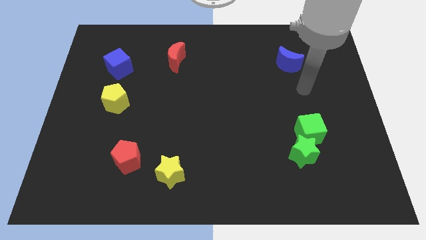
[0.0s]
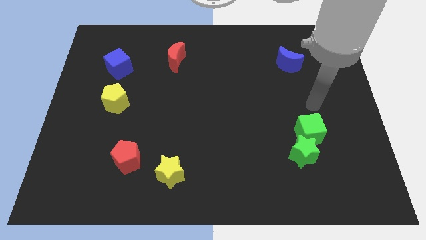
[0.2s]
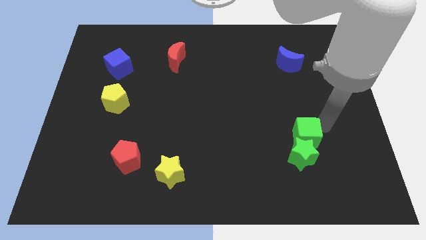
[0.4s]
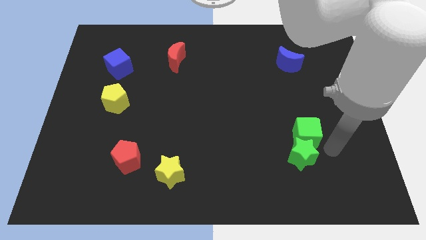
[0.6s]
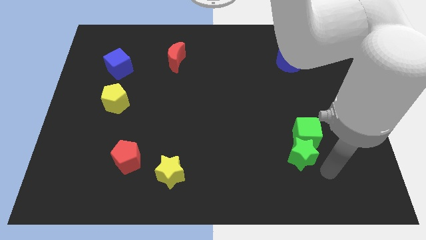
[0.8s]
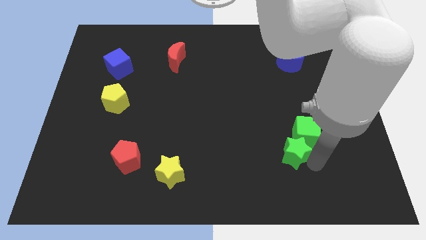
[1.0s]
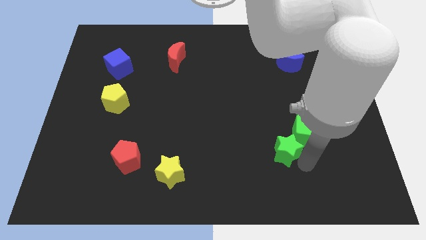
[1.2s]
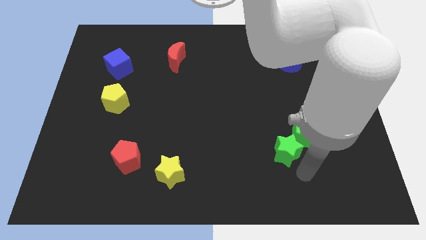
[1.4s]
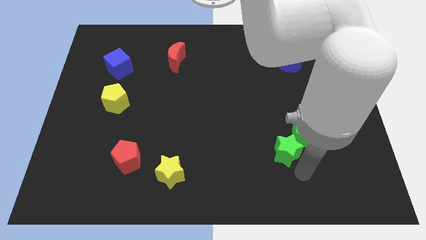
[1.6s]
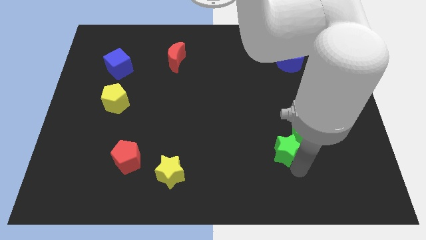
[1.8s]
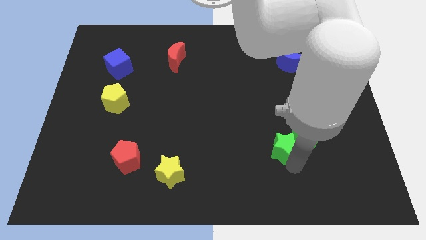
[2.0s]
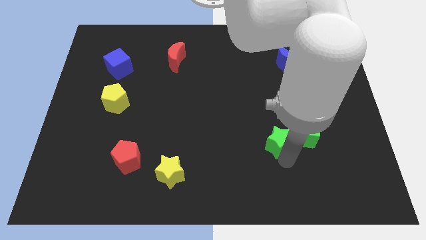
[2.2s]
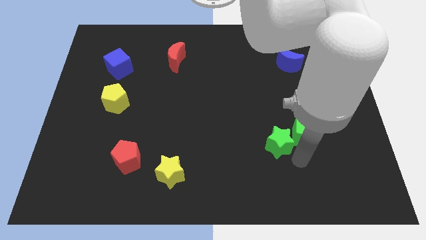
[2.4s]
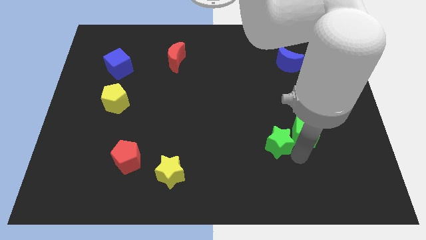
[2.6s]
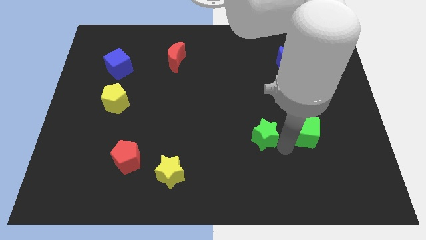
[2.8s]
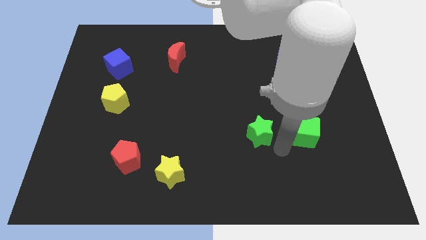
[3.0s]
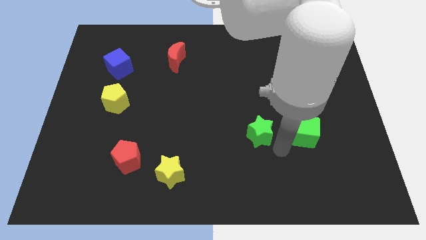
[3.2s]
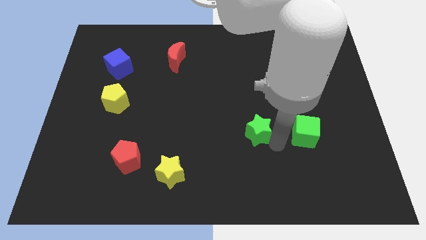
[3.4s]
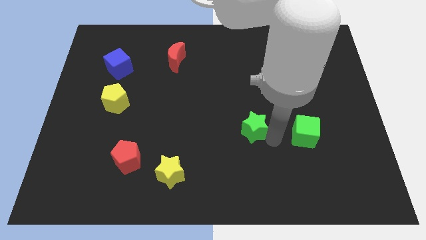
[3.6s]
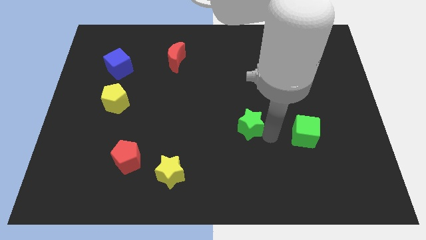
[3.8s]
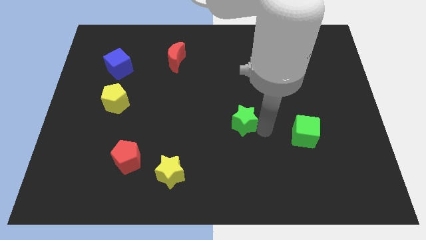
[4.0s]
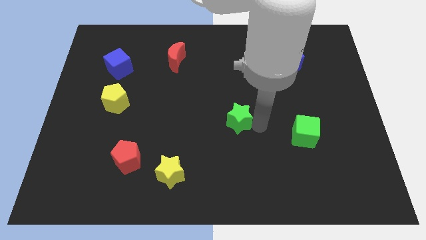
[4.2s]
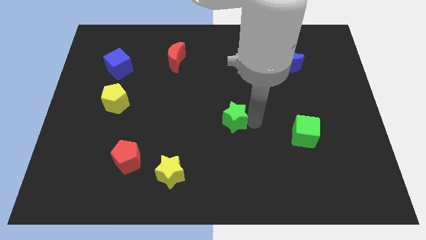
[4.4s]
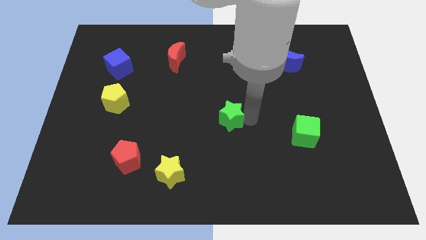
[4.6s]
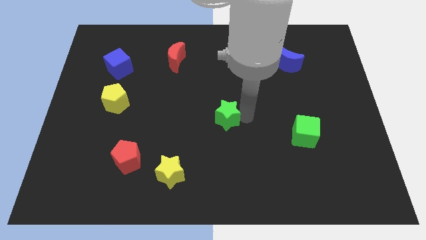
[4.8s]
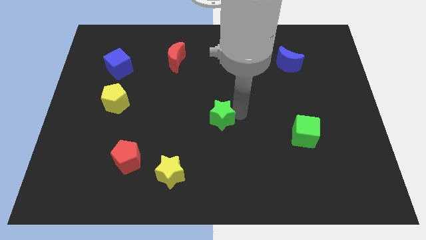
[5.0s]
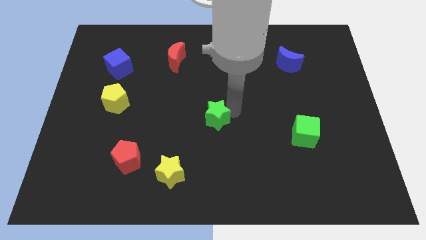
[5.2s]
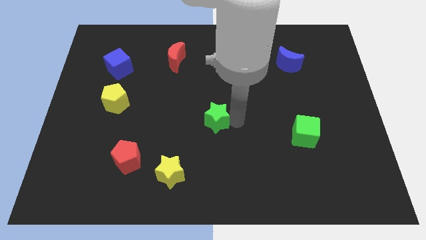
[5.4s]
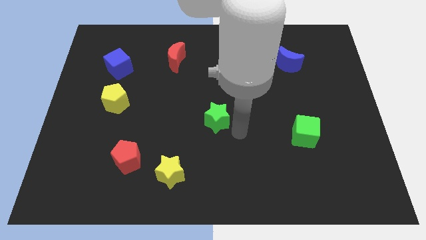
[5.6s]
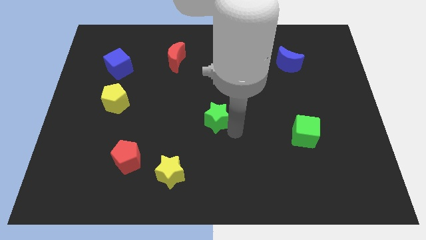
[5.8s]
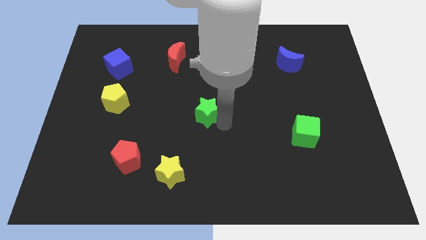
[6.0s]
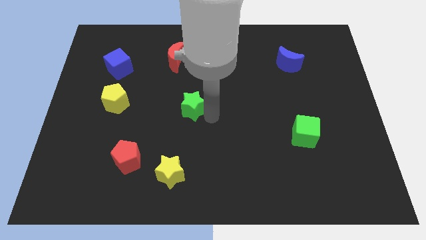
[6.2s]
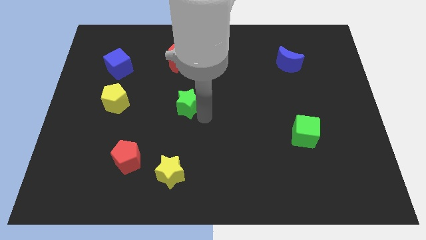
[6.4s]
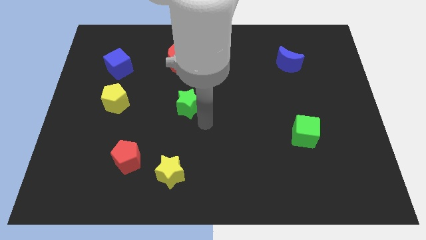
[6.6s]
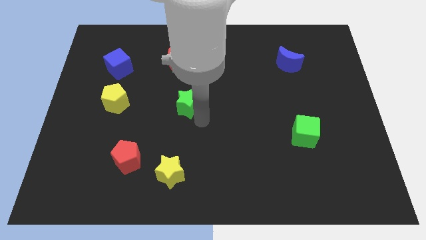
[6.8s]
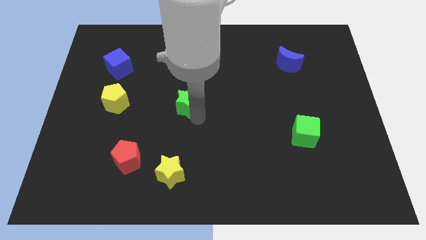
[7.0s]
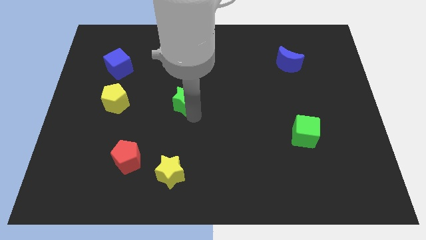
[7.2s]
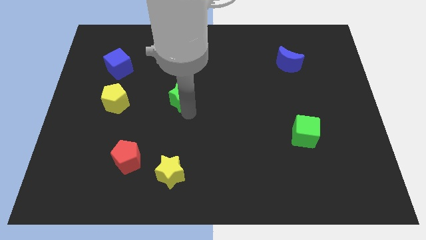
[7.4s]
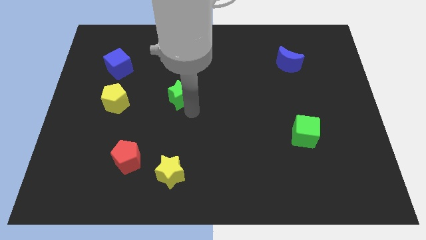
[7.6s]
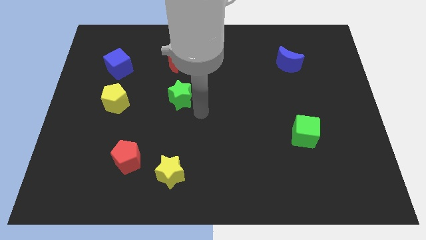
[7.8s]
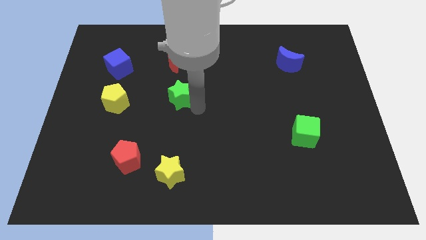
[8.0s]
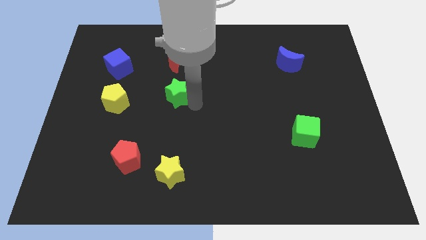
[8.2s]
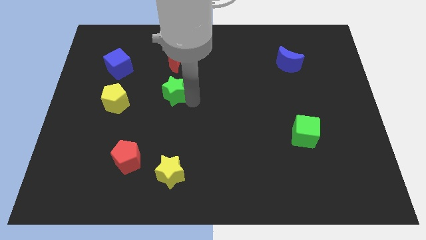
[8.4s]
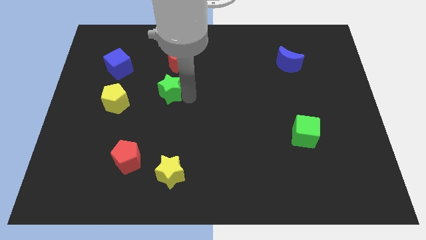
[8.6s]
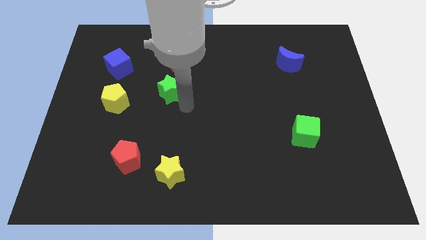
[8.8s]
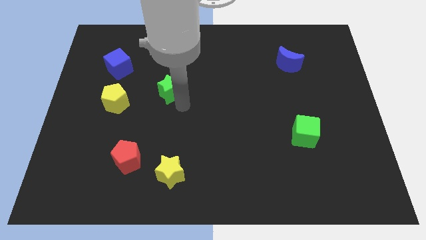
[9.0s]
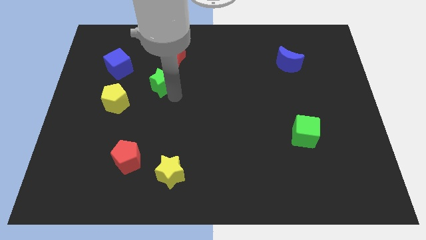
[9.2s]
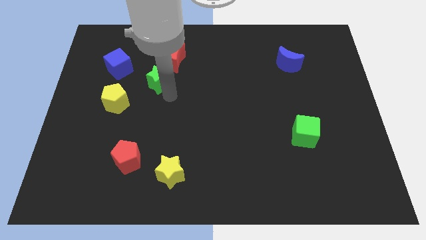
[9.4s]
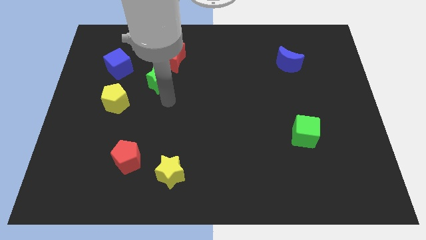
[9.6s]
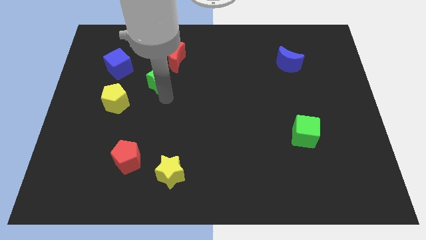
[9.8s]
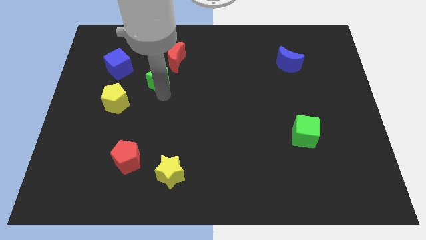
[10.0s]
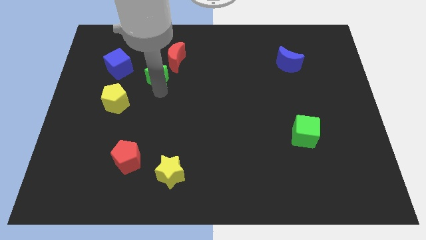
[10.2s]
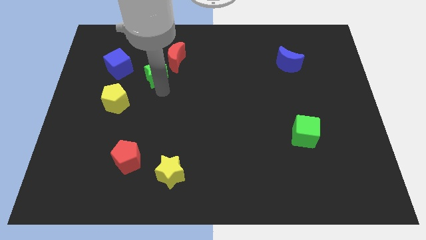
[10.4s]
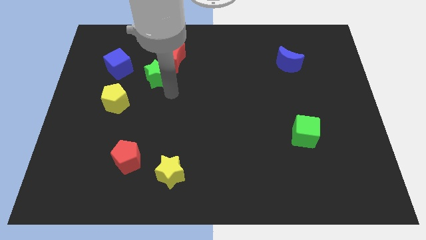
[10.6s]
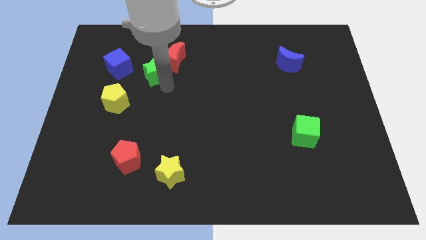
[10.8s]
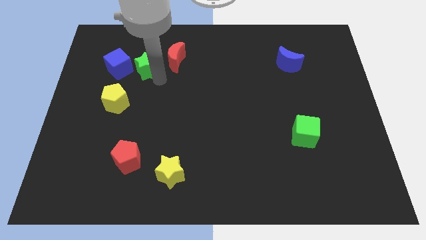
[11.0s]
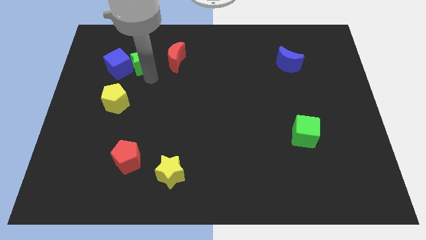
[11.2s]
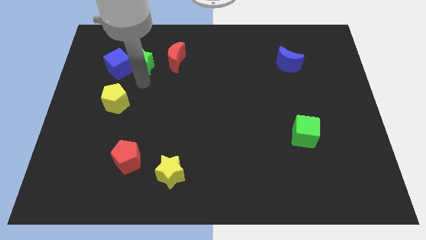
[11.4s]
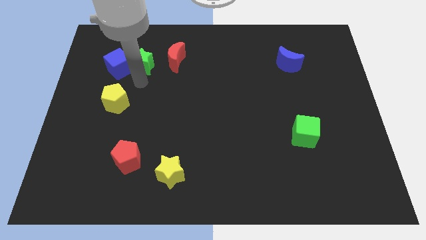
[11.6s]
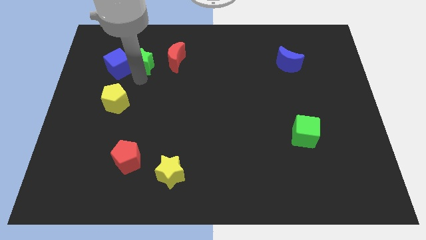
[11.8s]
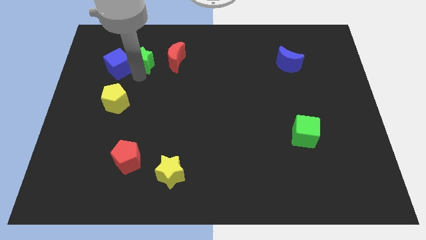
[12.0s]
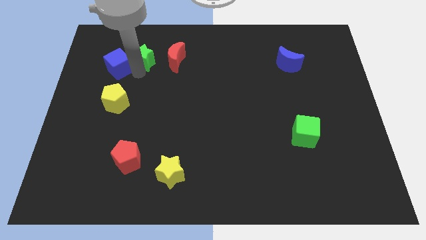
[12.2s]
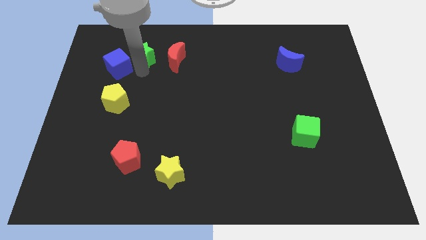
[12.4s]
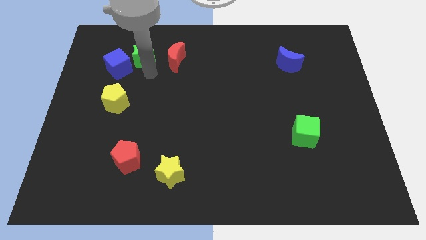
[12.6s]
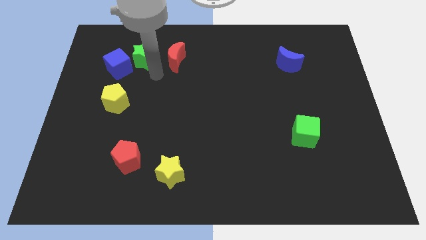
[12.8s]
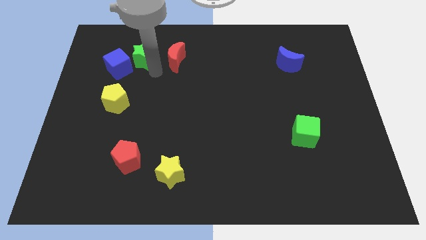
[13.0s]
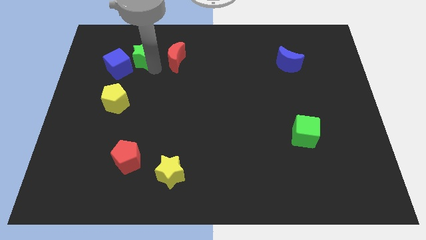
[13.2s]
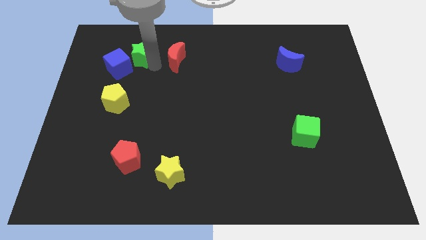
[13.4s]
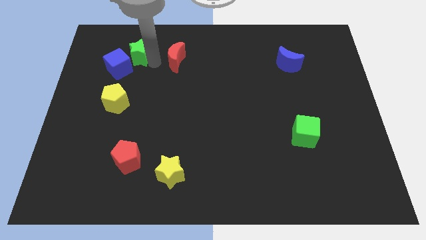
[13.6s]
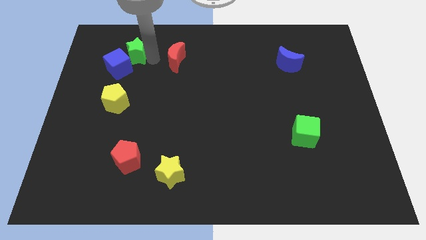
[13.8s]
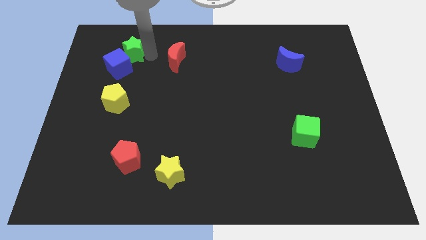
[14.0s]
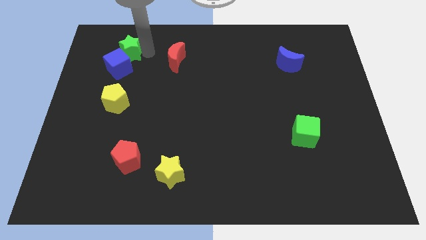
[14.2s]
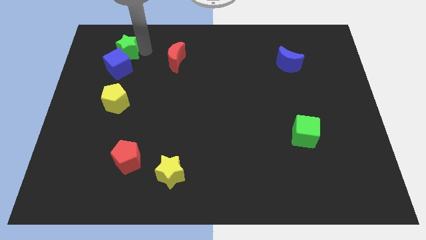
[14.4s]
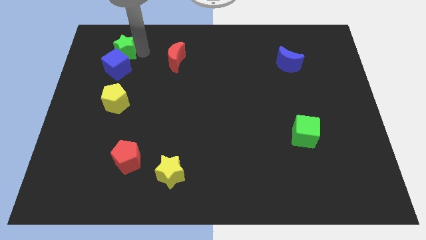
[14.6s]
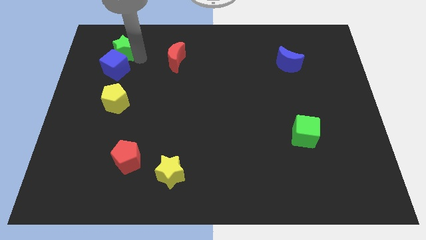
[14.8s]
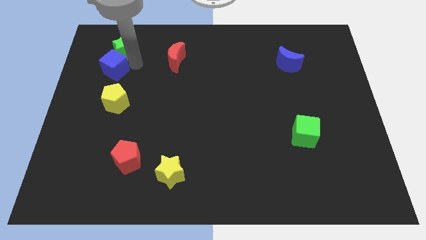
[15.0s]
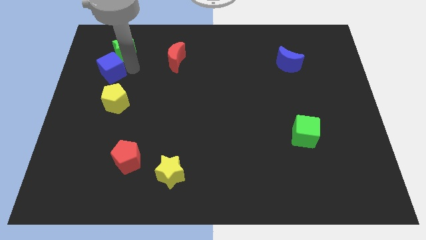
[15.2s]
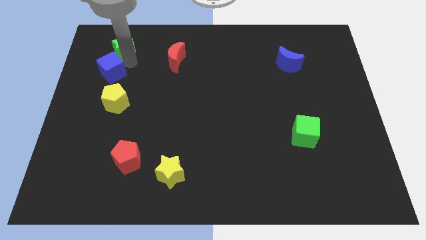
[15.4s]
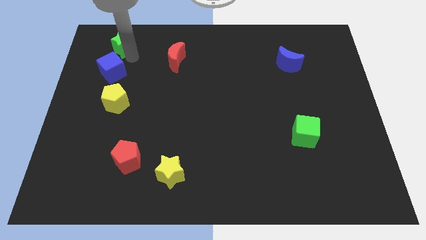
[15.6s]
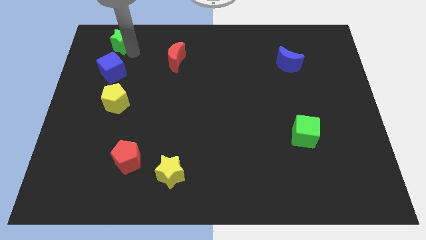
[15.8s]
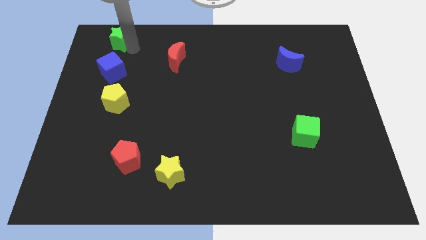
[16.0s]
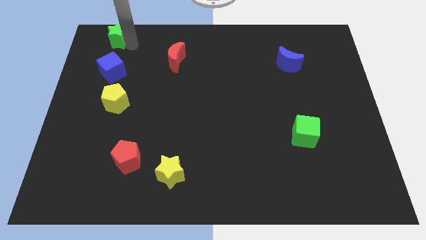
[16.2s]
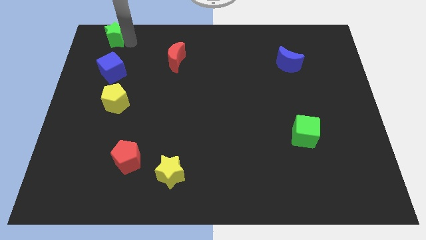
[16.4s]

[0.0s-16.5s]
put the green star to the top left
